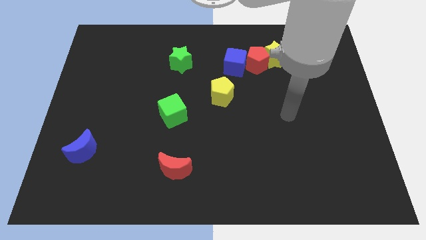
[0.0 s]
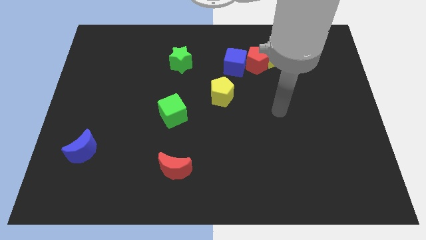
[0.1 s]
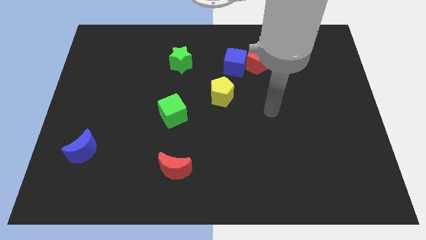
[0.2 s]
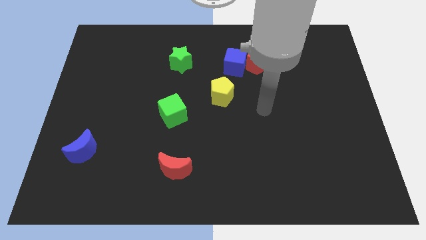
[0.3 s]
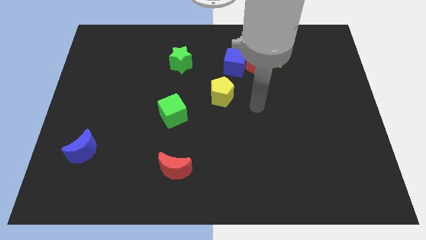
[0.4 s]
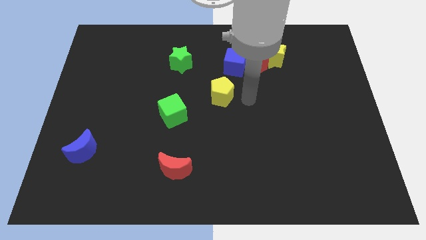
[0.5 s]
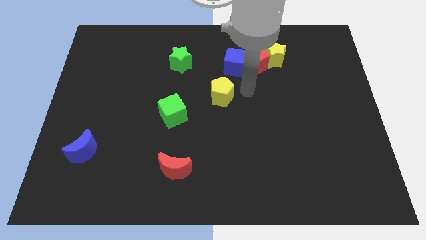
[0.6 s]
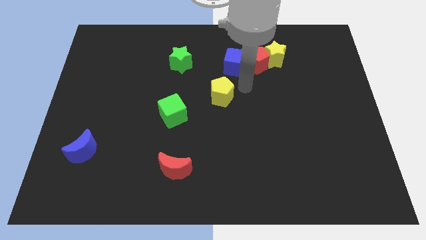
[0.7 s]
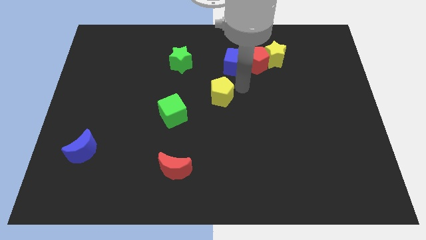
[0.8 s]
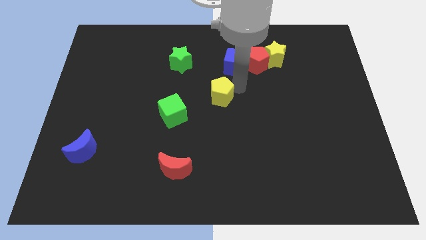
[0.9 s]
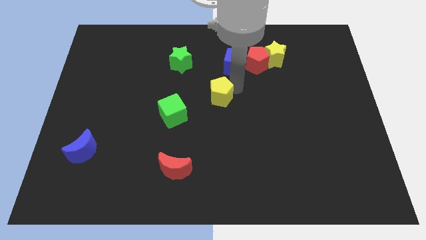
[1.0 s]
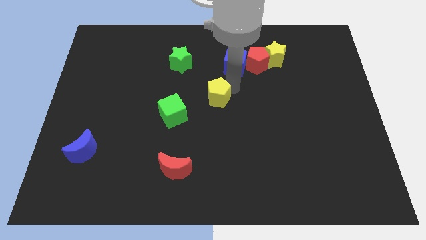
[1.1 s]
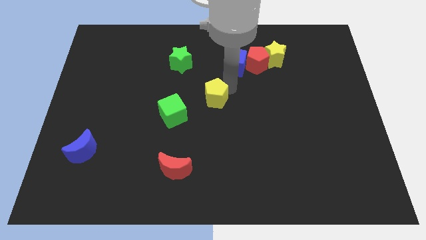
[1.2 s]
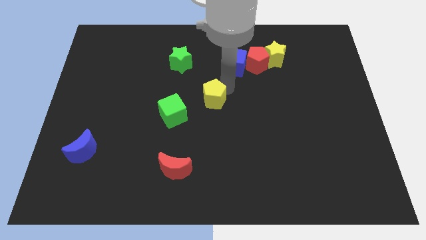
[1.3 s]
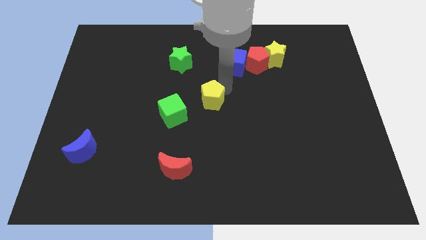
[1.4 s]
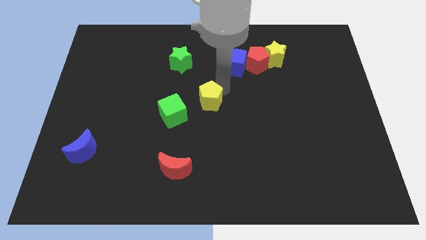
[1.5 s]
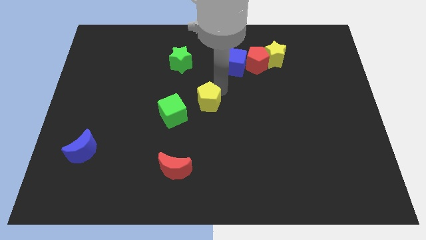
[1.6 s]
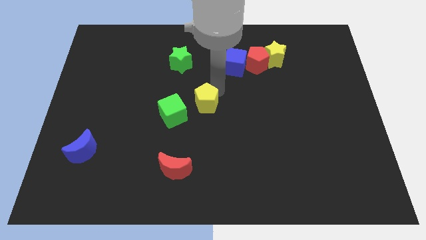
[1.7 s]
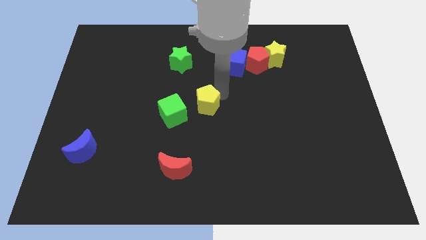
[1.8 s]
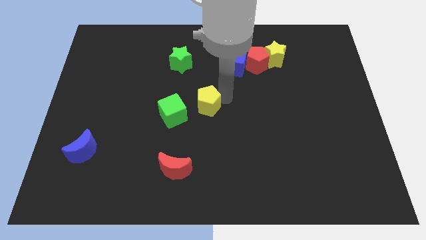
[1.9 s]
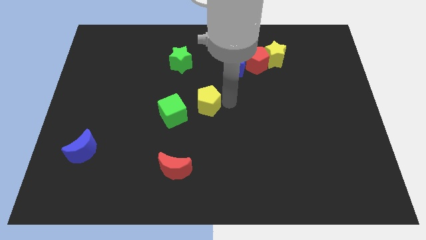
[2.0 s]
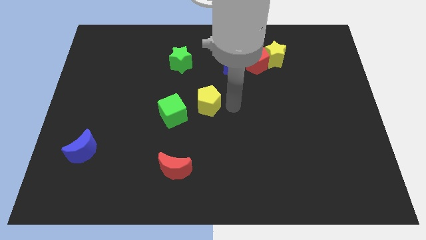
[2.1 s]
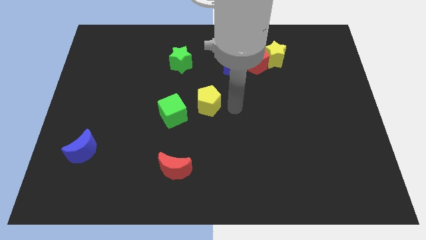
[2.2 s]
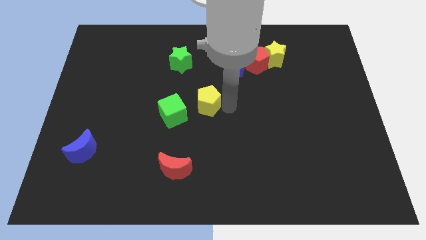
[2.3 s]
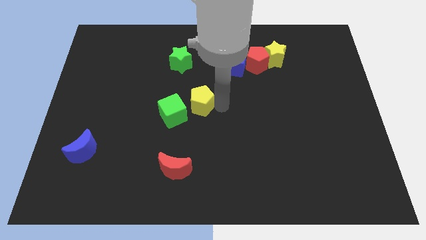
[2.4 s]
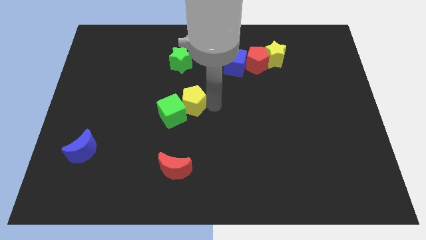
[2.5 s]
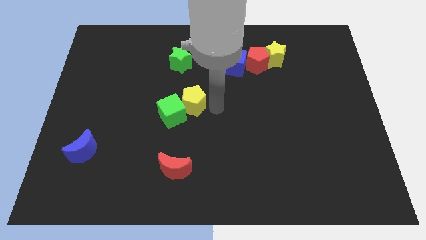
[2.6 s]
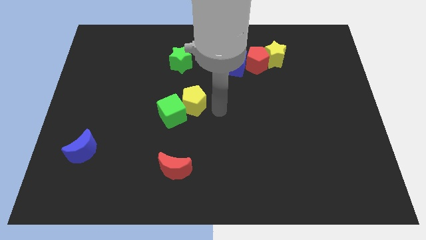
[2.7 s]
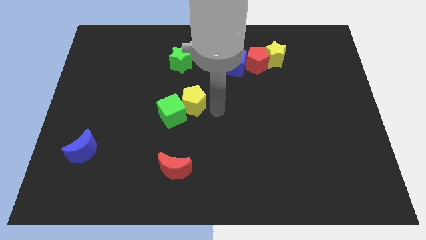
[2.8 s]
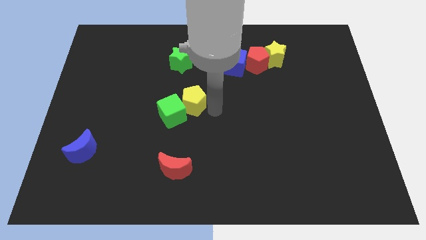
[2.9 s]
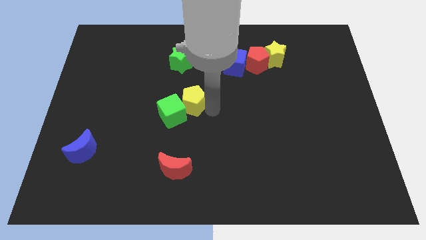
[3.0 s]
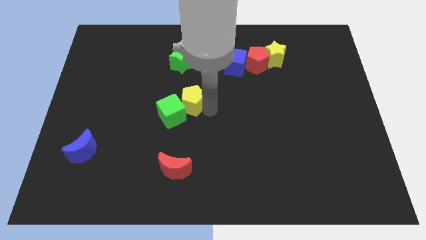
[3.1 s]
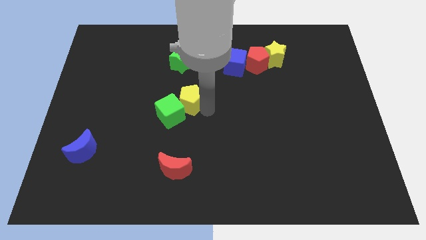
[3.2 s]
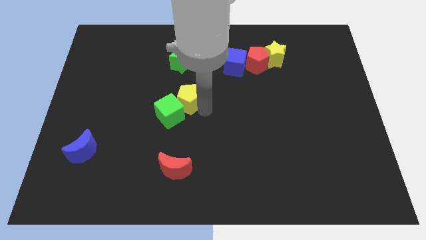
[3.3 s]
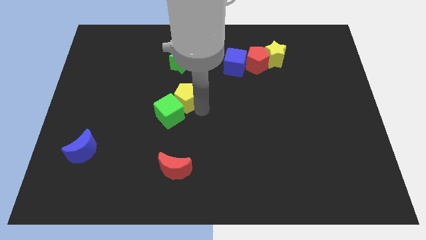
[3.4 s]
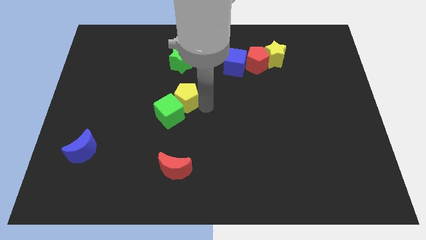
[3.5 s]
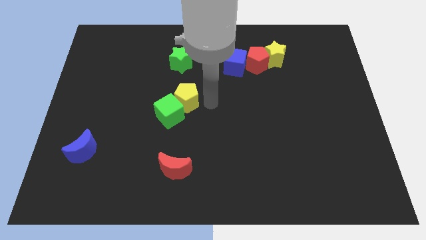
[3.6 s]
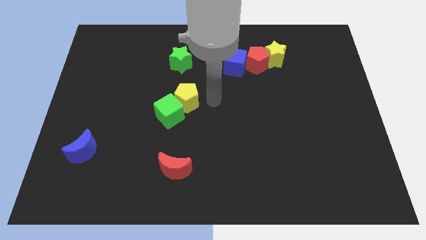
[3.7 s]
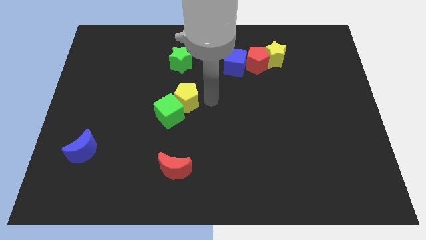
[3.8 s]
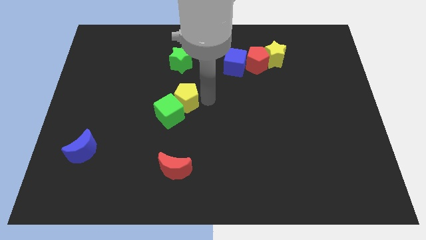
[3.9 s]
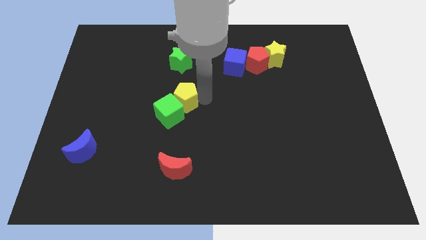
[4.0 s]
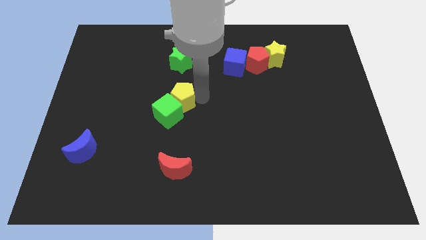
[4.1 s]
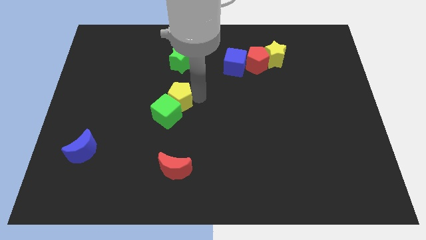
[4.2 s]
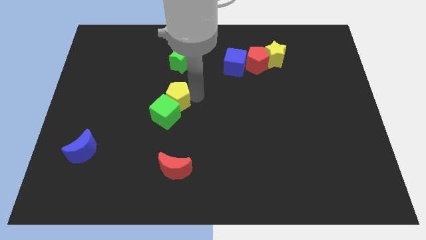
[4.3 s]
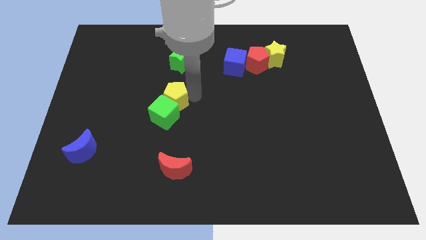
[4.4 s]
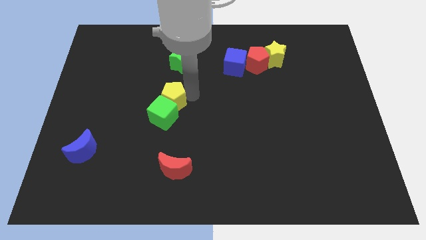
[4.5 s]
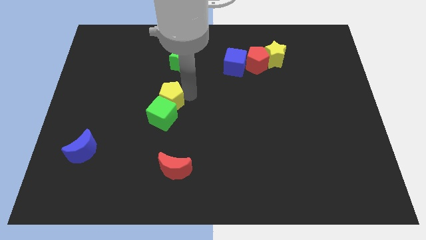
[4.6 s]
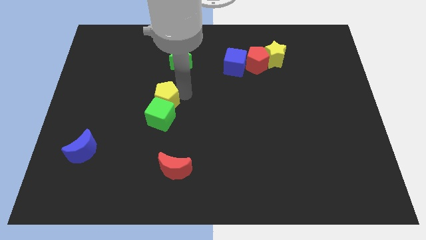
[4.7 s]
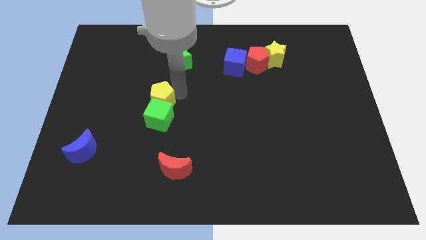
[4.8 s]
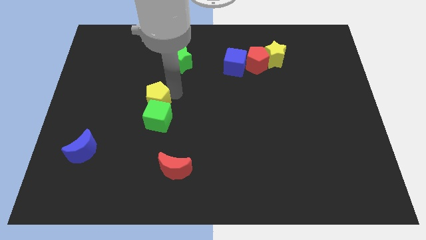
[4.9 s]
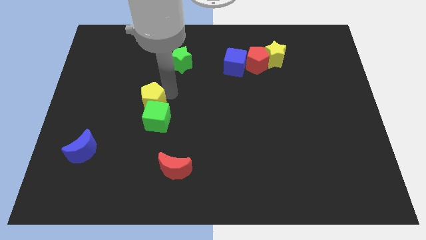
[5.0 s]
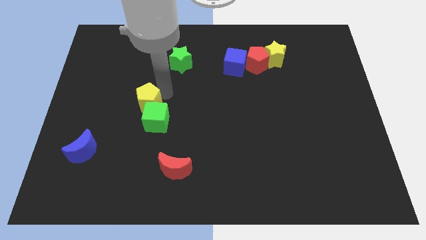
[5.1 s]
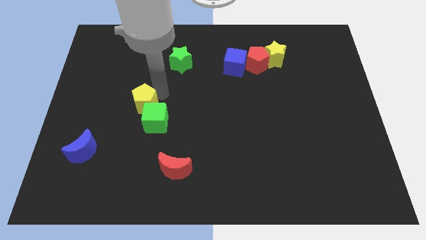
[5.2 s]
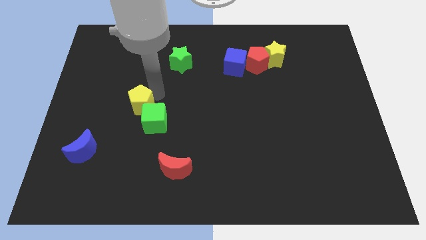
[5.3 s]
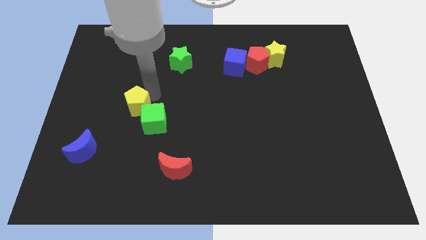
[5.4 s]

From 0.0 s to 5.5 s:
slide the yellow pentagon to the left of the green cube

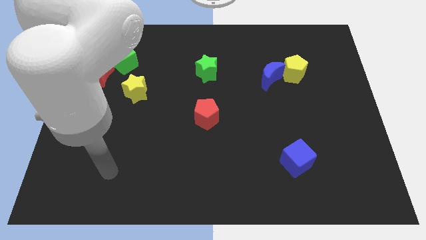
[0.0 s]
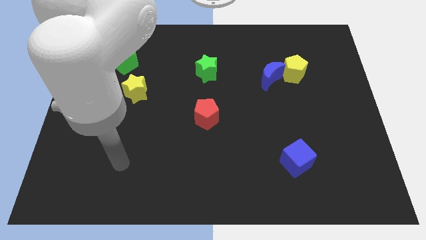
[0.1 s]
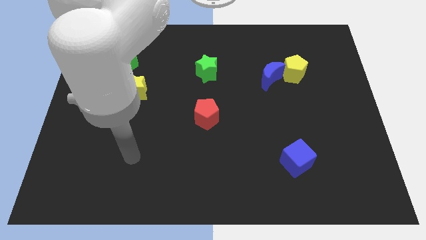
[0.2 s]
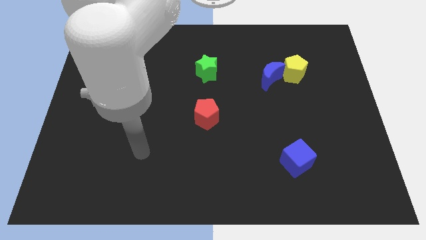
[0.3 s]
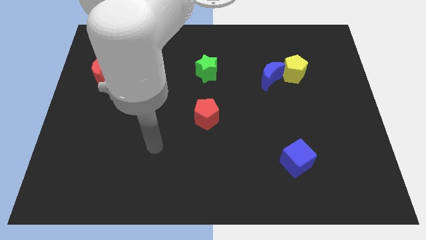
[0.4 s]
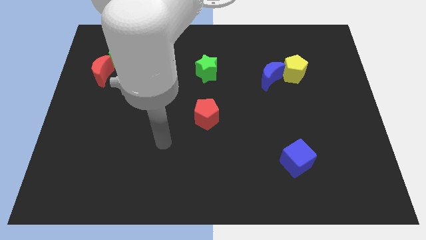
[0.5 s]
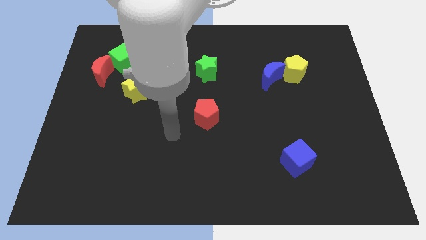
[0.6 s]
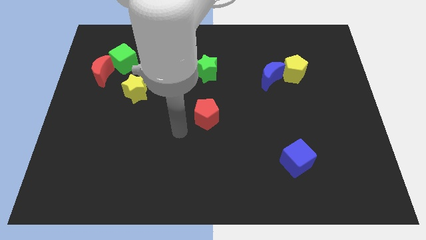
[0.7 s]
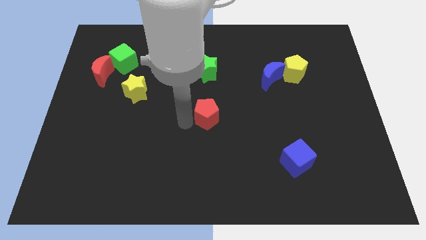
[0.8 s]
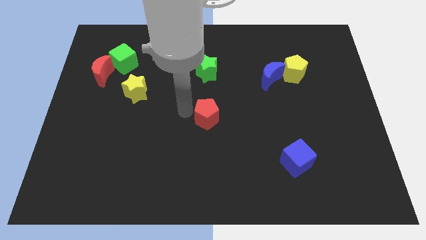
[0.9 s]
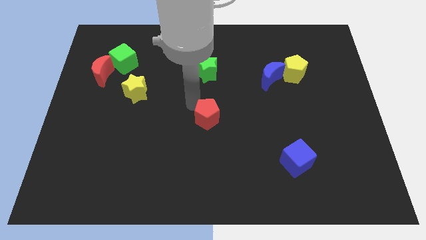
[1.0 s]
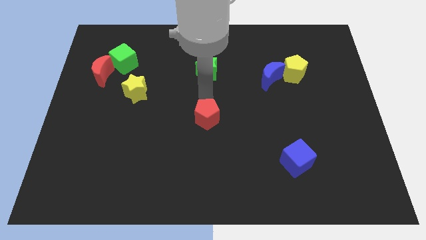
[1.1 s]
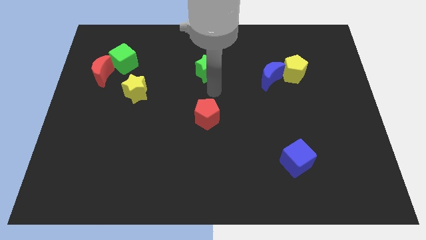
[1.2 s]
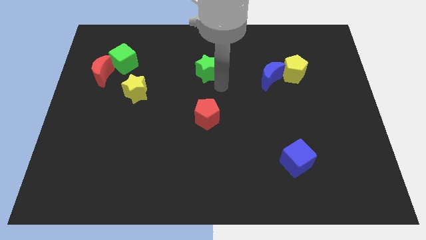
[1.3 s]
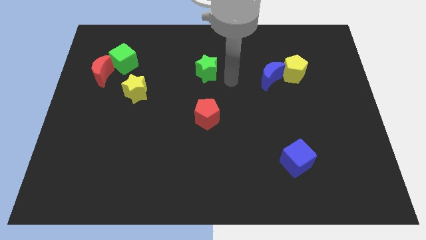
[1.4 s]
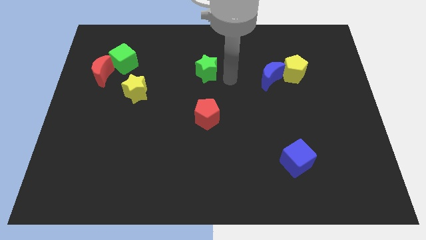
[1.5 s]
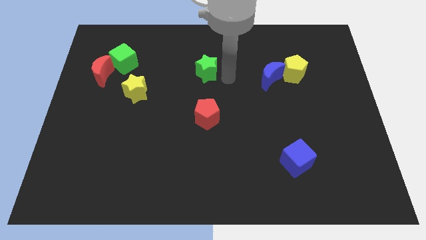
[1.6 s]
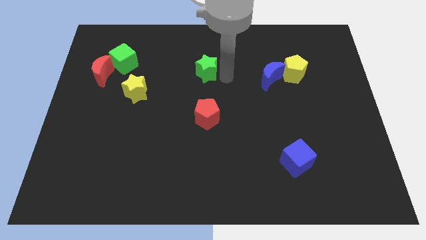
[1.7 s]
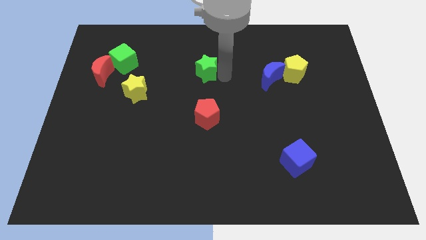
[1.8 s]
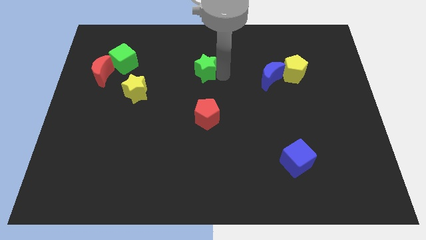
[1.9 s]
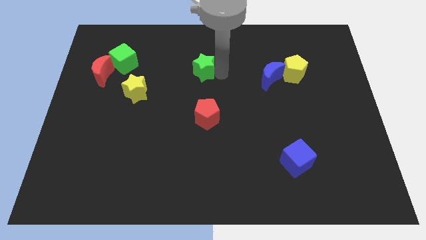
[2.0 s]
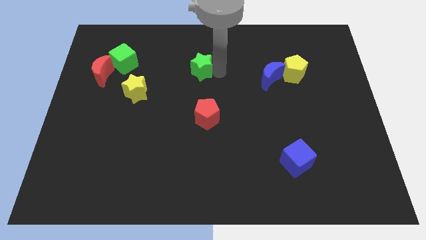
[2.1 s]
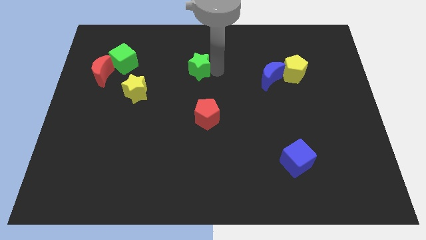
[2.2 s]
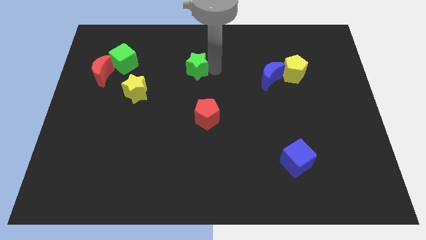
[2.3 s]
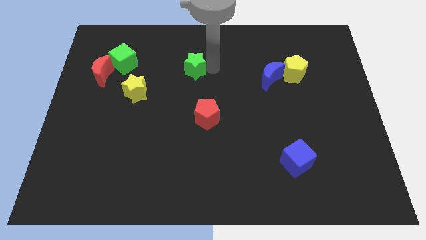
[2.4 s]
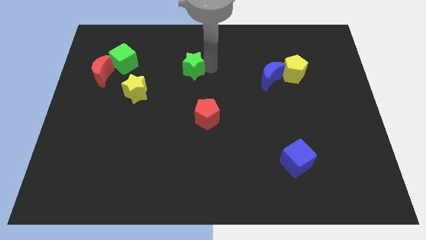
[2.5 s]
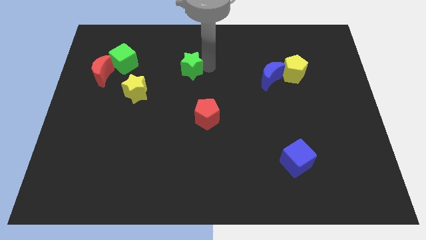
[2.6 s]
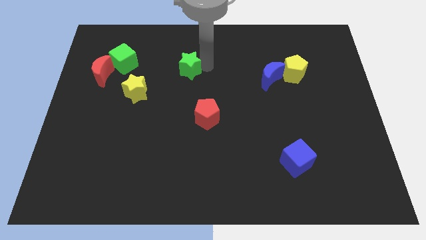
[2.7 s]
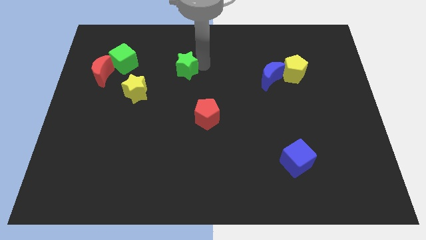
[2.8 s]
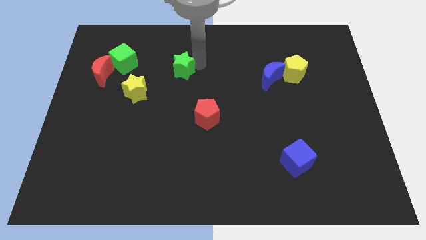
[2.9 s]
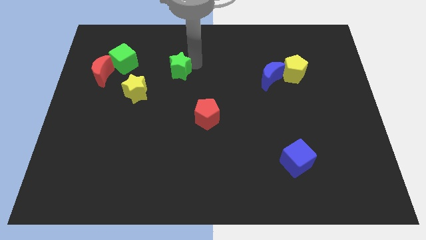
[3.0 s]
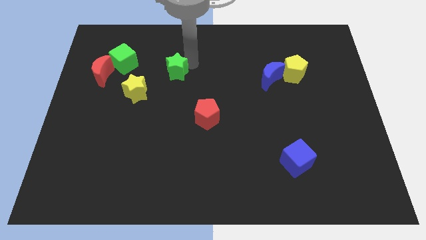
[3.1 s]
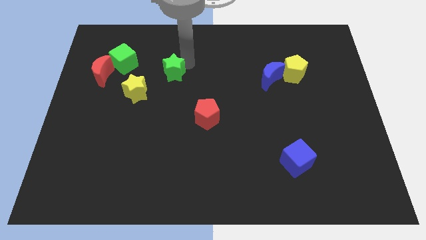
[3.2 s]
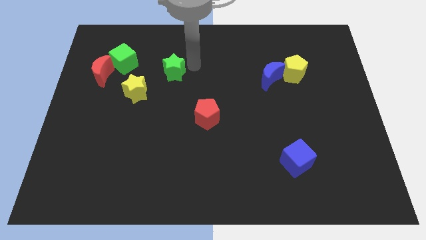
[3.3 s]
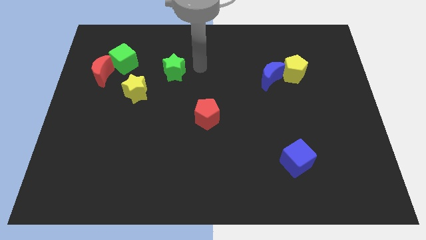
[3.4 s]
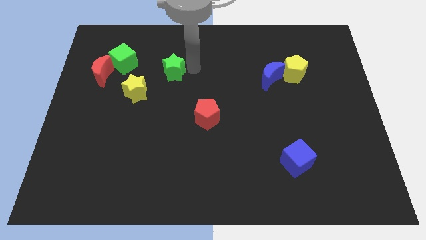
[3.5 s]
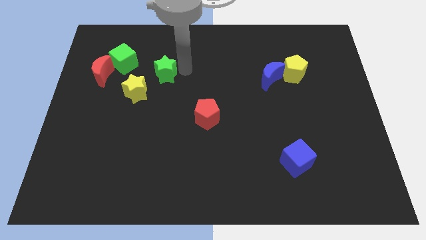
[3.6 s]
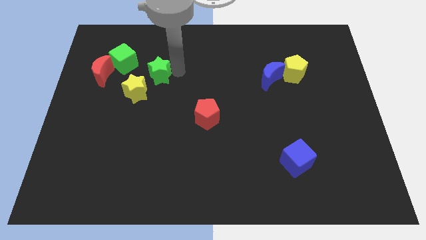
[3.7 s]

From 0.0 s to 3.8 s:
push the green star to the bottom right side of the green cube
